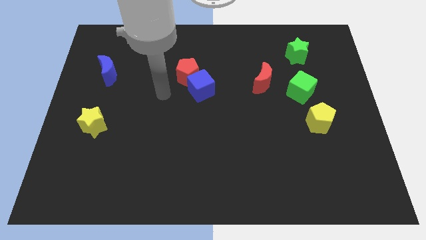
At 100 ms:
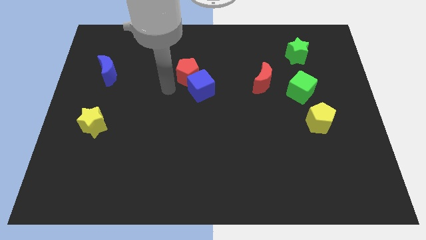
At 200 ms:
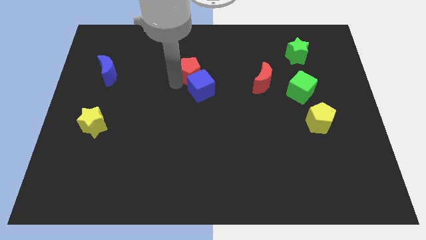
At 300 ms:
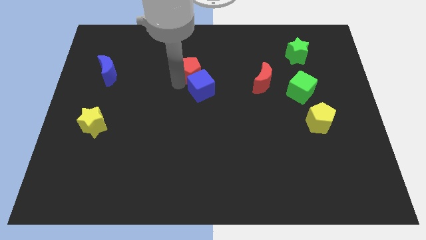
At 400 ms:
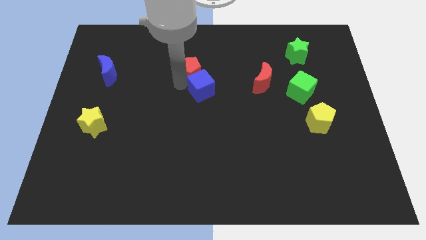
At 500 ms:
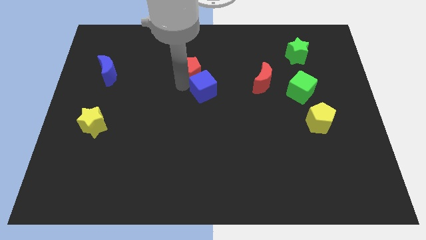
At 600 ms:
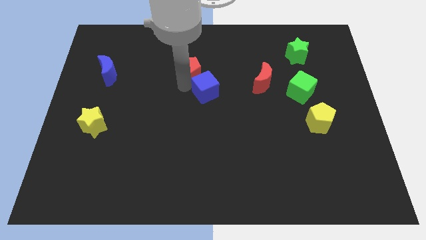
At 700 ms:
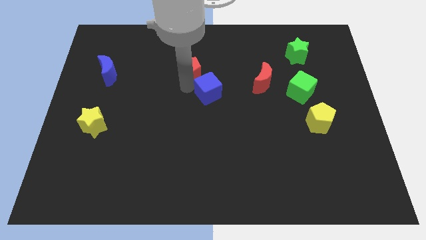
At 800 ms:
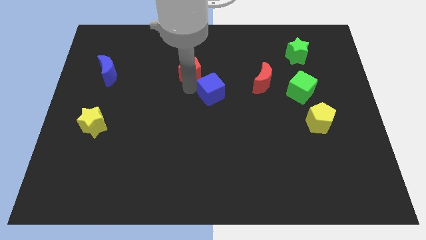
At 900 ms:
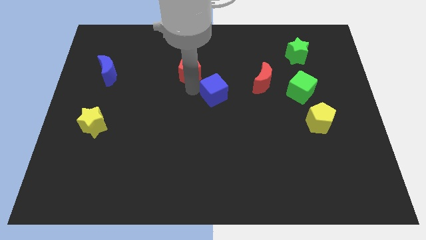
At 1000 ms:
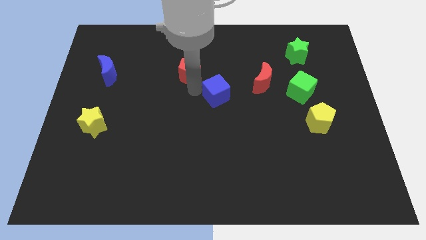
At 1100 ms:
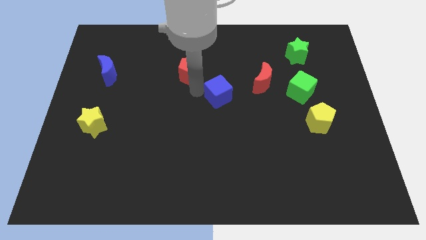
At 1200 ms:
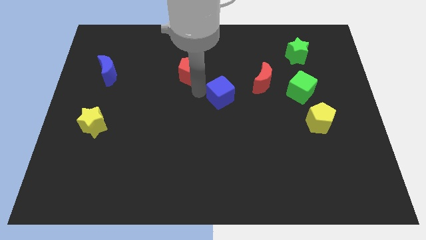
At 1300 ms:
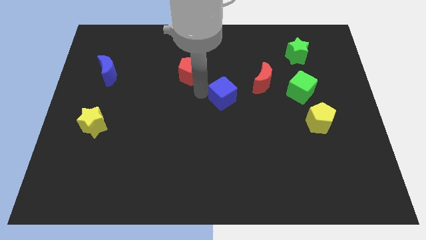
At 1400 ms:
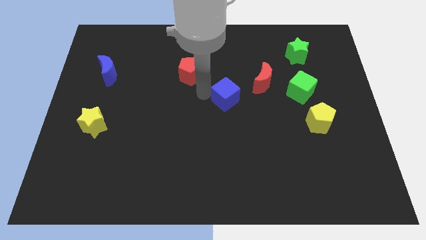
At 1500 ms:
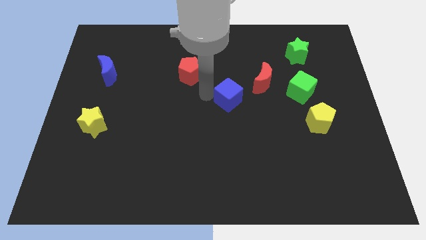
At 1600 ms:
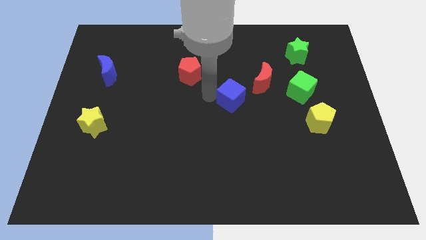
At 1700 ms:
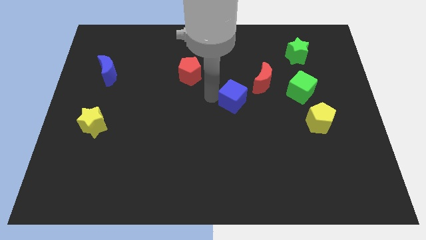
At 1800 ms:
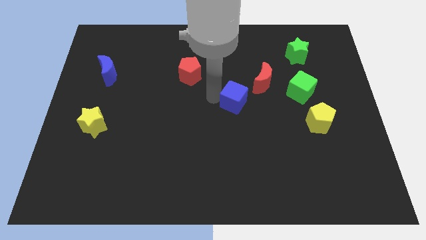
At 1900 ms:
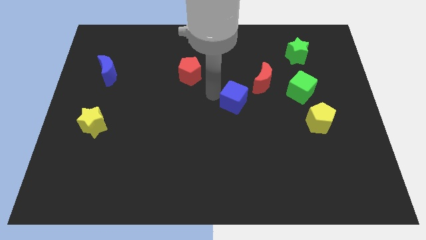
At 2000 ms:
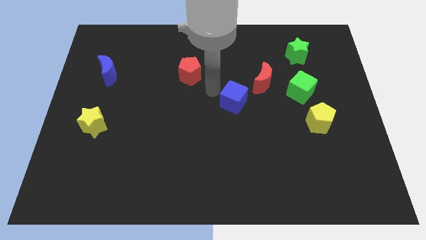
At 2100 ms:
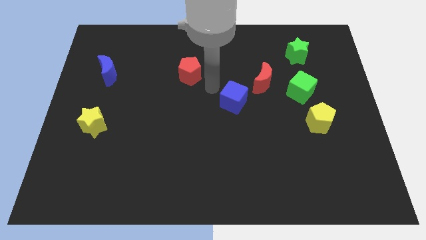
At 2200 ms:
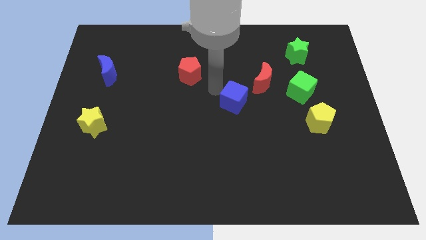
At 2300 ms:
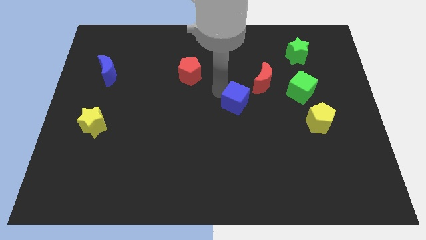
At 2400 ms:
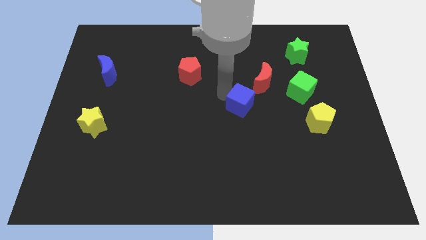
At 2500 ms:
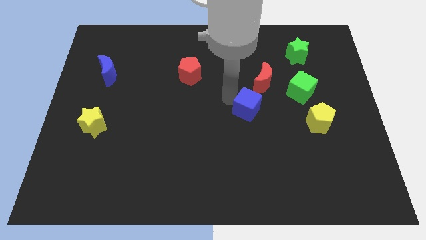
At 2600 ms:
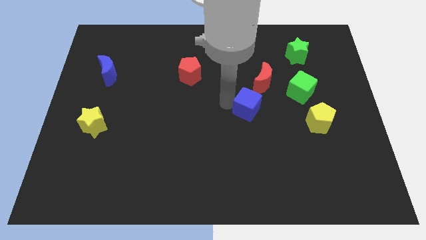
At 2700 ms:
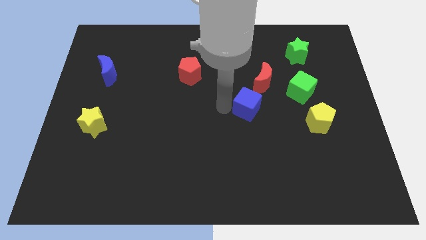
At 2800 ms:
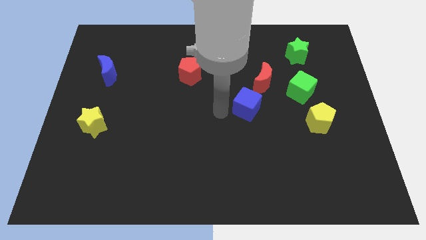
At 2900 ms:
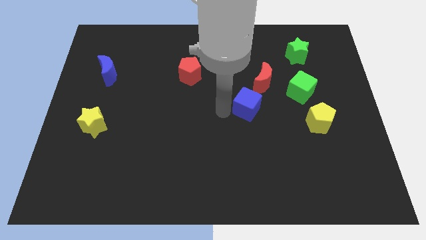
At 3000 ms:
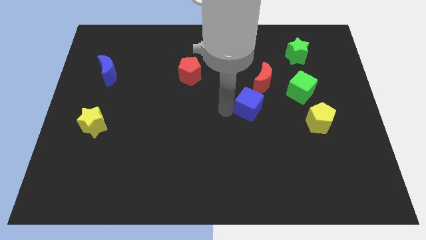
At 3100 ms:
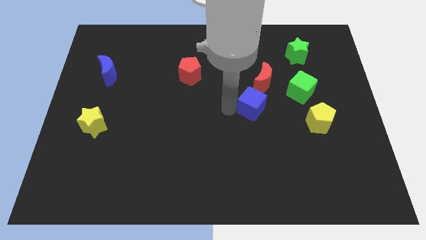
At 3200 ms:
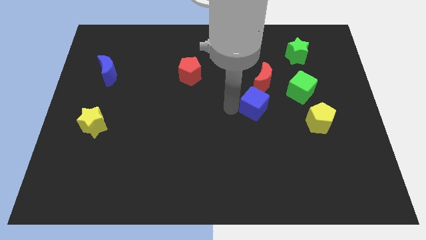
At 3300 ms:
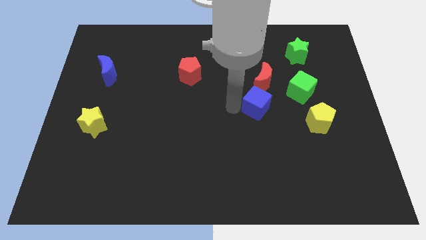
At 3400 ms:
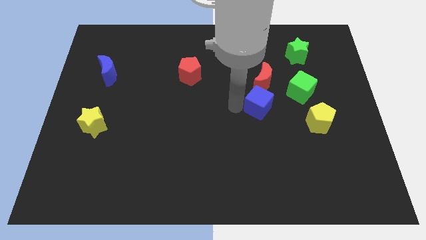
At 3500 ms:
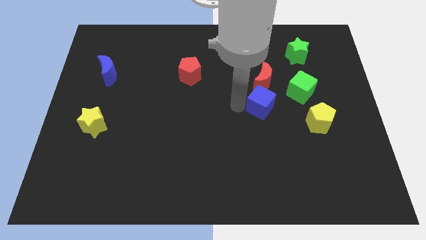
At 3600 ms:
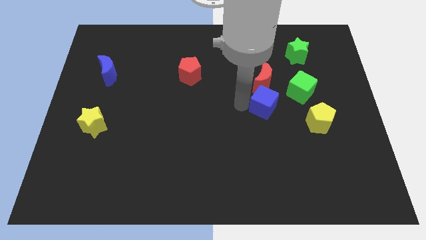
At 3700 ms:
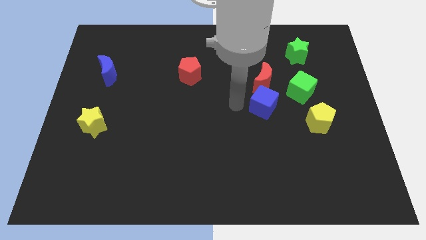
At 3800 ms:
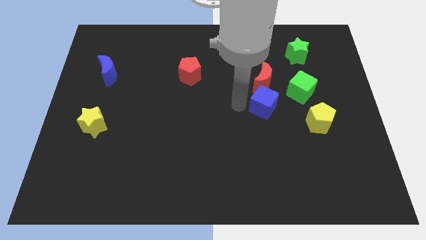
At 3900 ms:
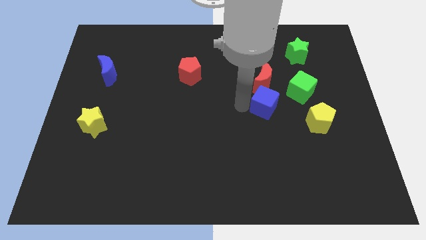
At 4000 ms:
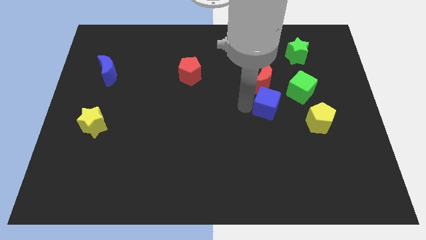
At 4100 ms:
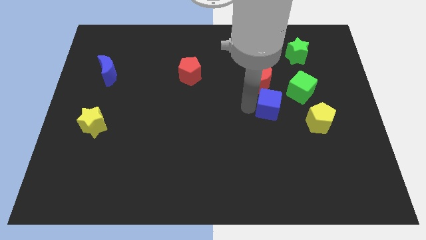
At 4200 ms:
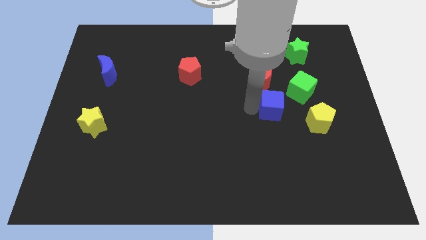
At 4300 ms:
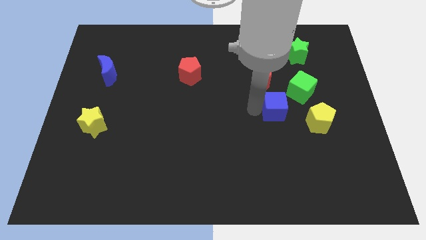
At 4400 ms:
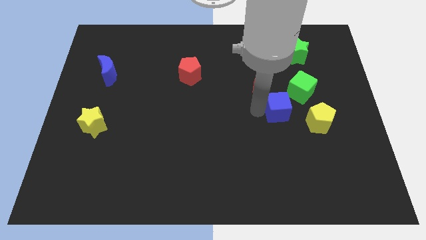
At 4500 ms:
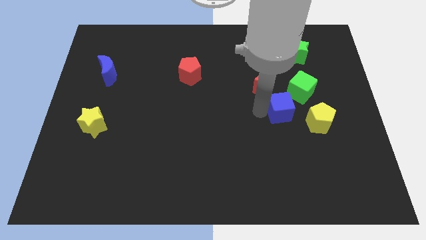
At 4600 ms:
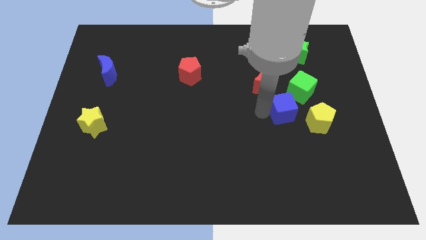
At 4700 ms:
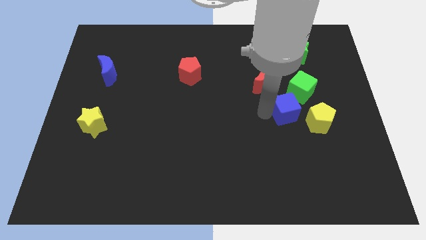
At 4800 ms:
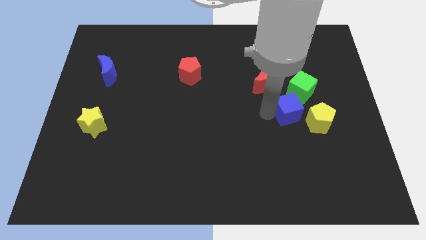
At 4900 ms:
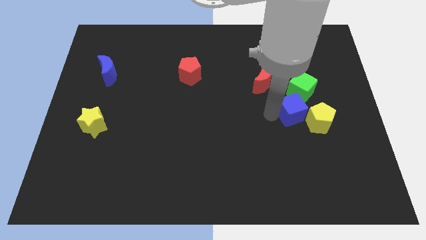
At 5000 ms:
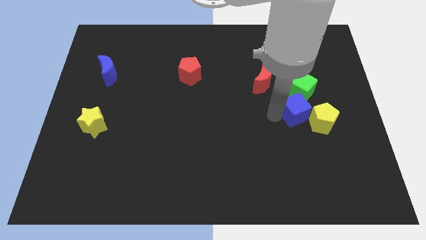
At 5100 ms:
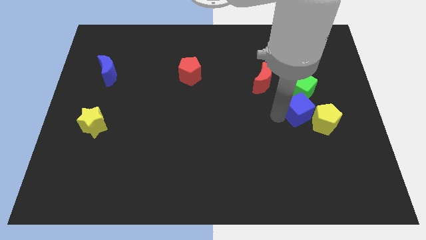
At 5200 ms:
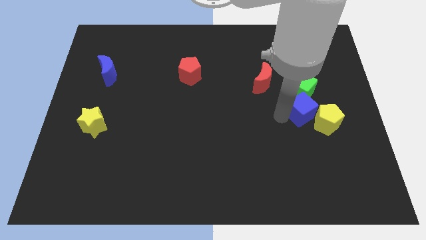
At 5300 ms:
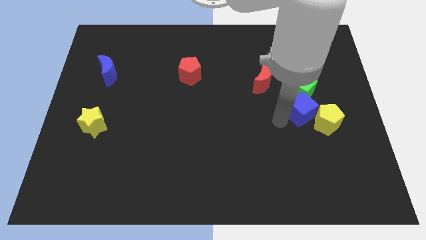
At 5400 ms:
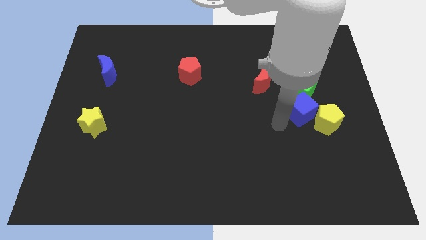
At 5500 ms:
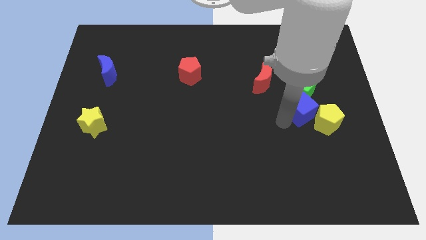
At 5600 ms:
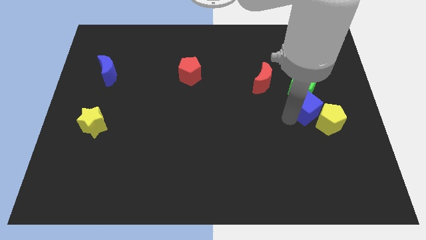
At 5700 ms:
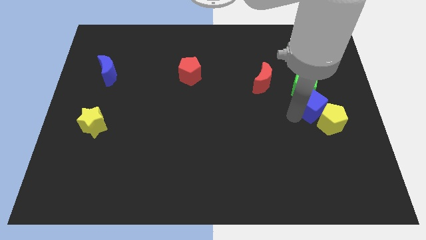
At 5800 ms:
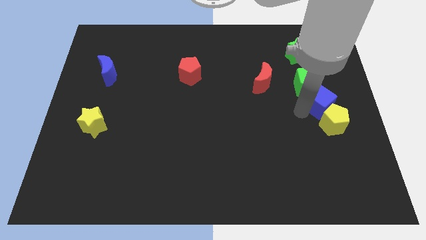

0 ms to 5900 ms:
slide the blue cube to the center right
